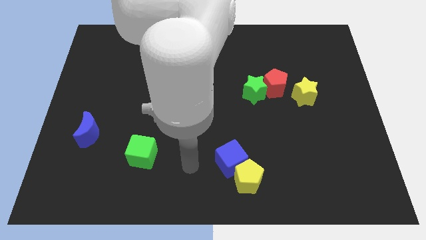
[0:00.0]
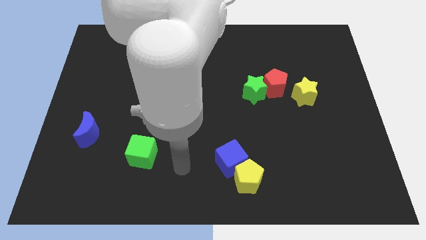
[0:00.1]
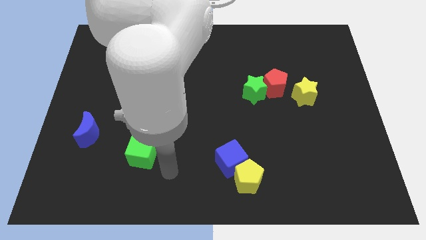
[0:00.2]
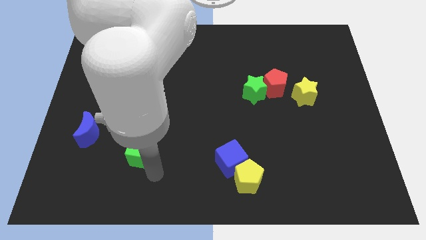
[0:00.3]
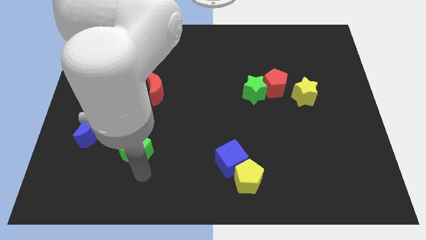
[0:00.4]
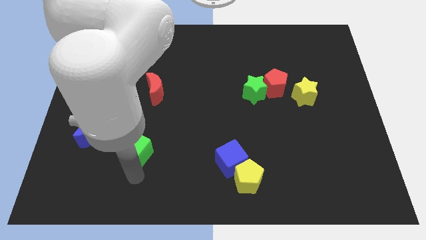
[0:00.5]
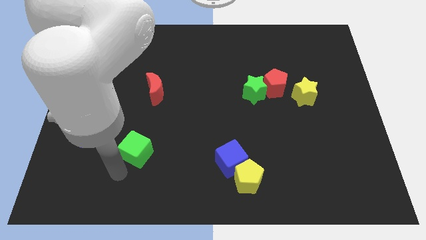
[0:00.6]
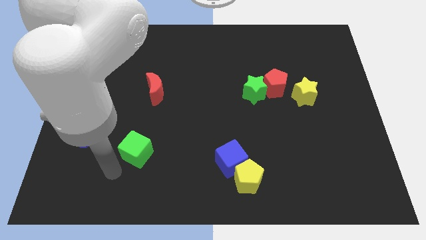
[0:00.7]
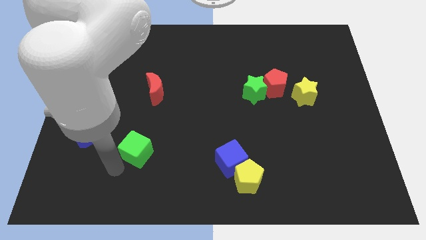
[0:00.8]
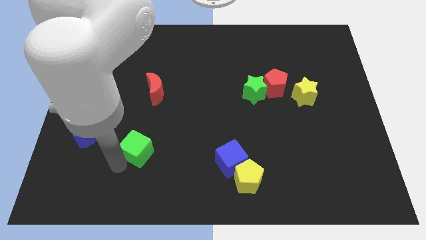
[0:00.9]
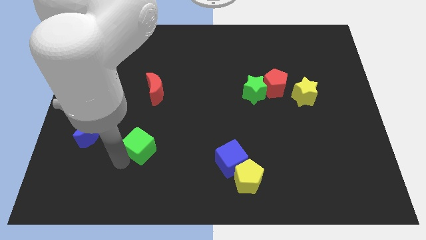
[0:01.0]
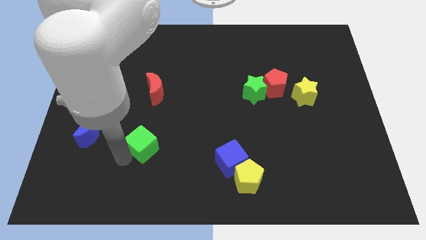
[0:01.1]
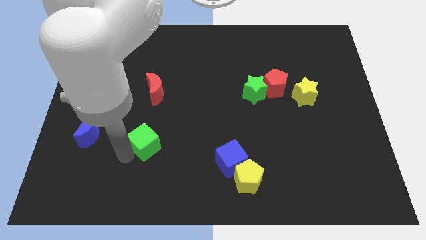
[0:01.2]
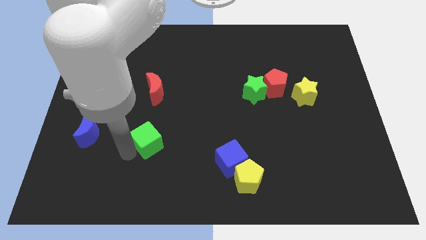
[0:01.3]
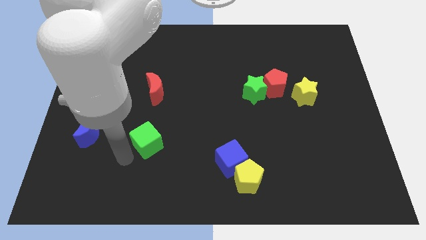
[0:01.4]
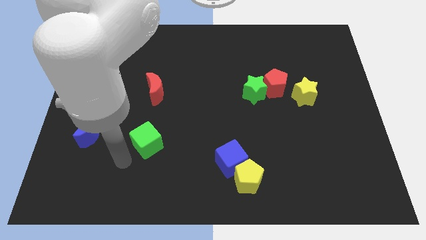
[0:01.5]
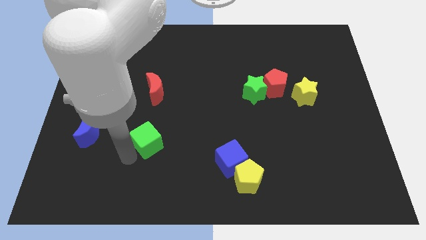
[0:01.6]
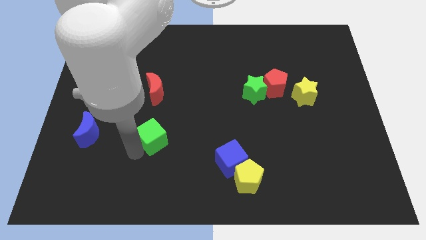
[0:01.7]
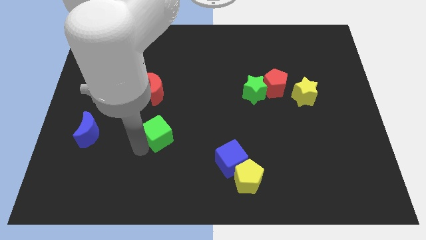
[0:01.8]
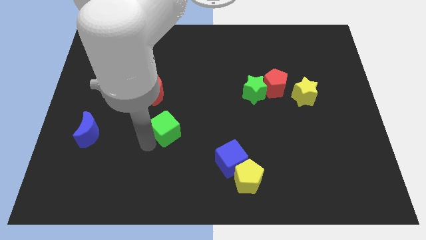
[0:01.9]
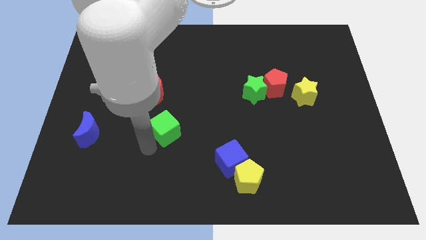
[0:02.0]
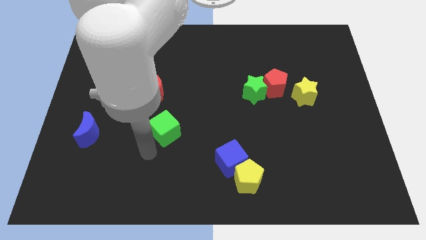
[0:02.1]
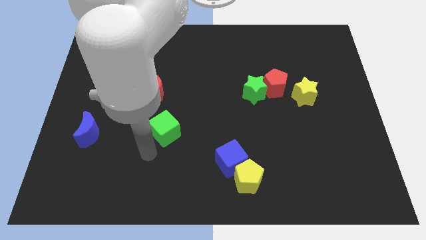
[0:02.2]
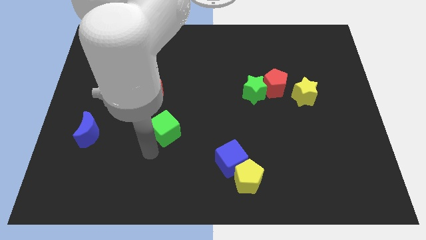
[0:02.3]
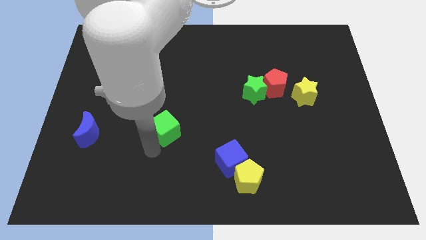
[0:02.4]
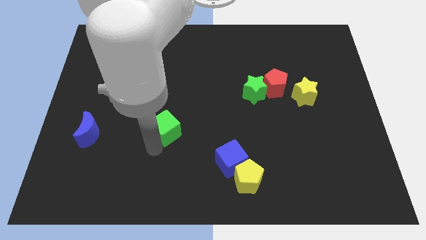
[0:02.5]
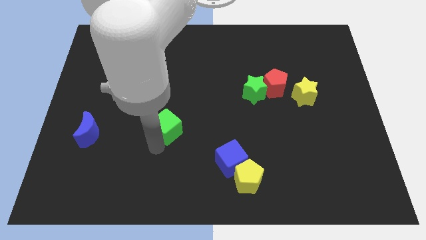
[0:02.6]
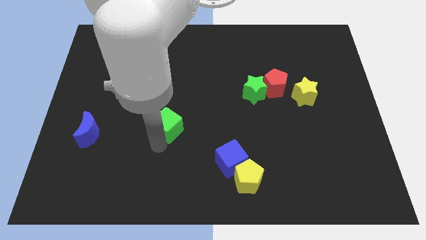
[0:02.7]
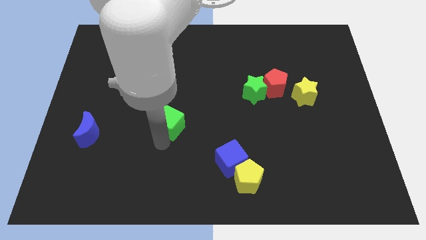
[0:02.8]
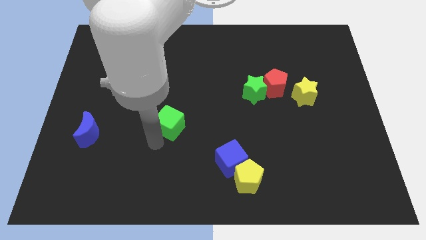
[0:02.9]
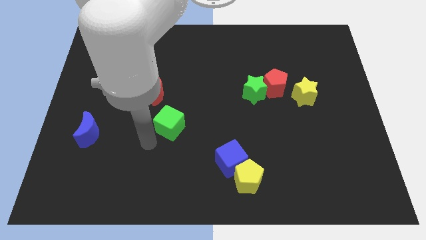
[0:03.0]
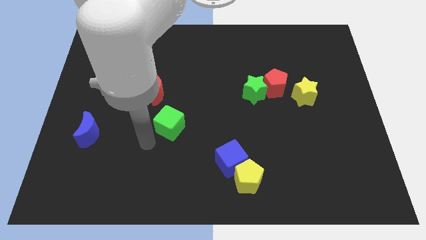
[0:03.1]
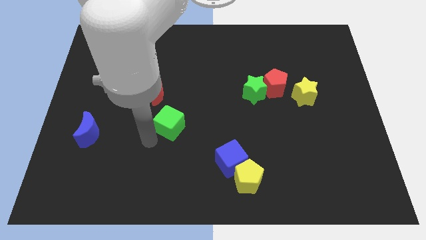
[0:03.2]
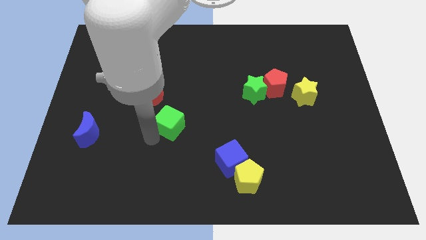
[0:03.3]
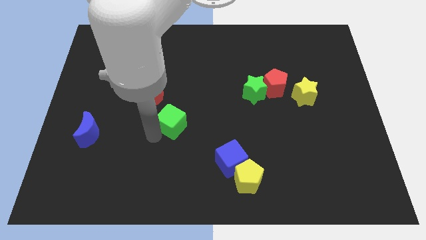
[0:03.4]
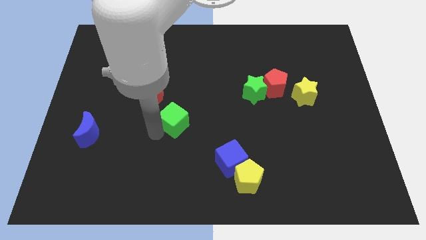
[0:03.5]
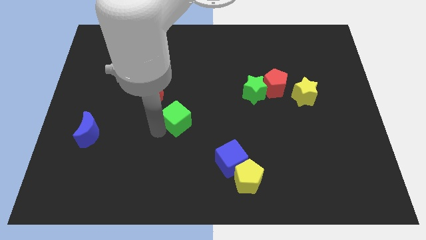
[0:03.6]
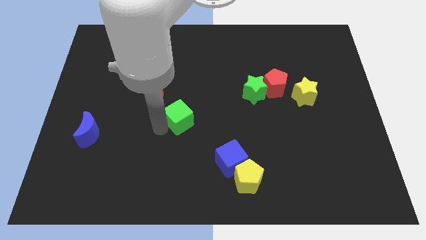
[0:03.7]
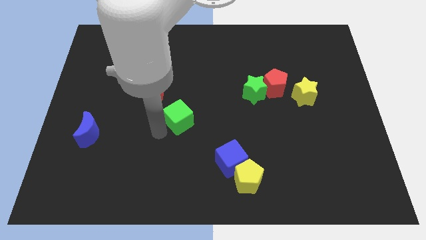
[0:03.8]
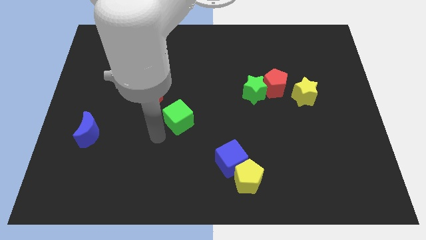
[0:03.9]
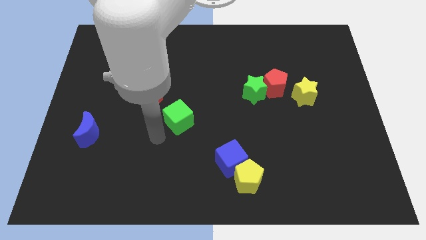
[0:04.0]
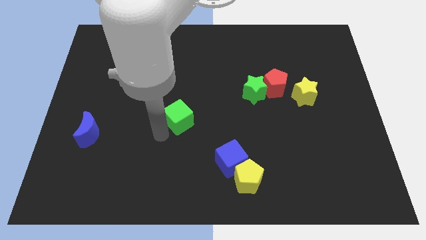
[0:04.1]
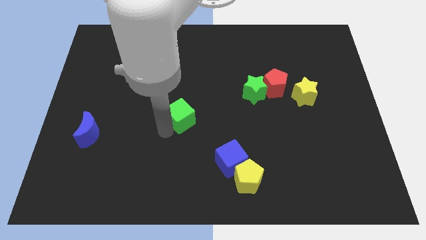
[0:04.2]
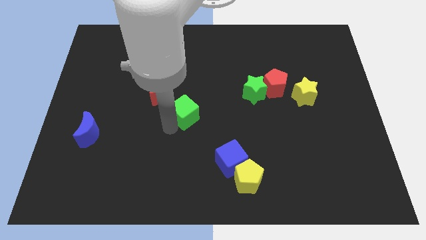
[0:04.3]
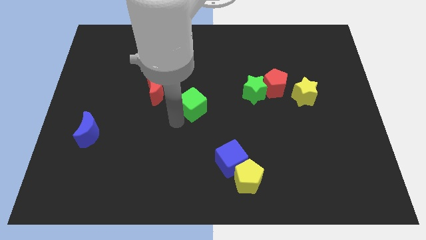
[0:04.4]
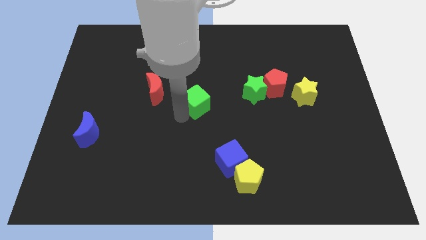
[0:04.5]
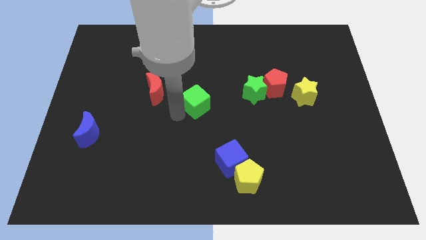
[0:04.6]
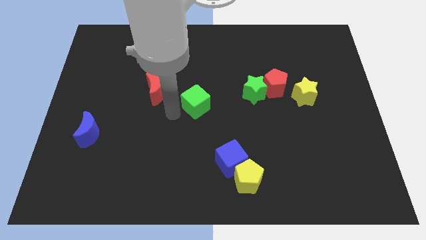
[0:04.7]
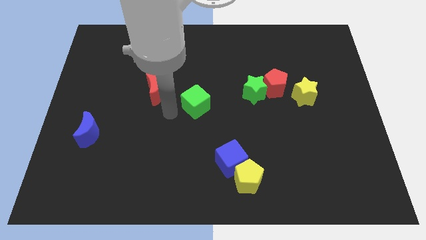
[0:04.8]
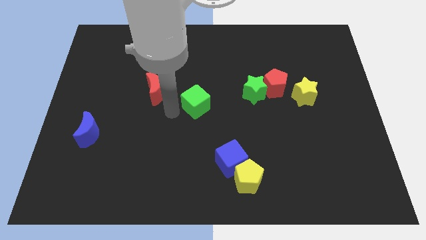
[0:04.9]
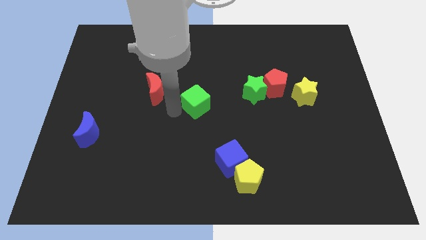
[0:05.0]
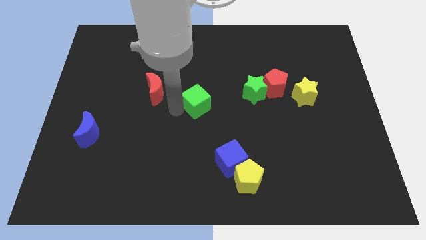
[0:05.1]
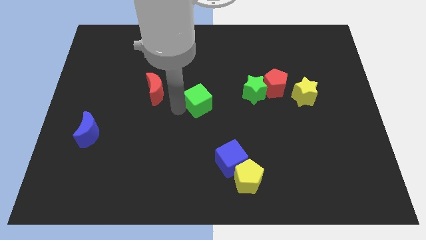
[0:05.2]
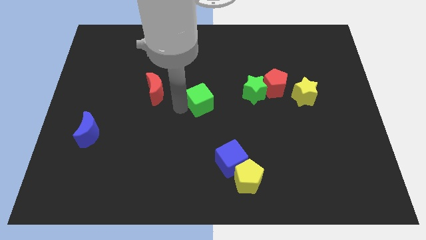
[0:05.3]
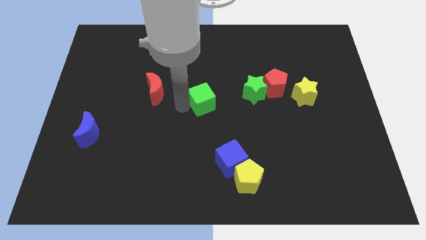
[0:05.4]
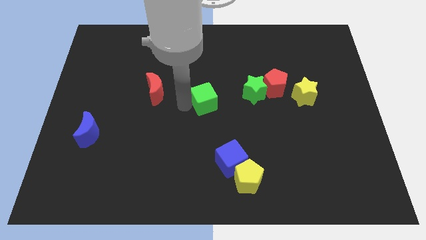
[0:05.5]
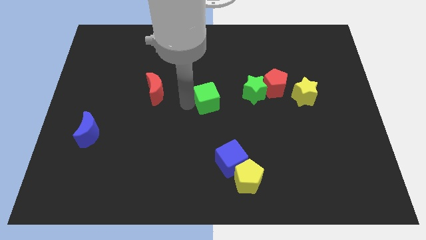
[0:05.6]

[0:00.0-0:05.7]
push the green cube upwards and then right

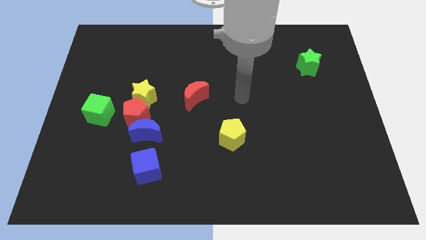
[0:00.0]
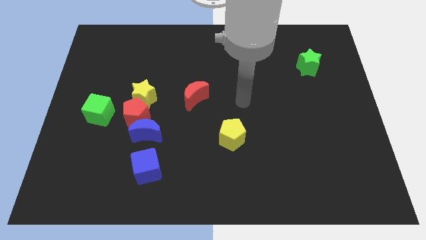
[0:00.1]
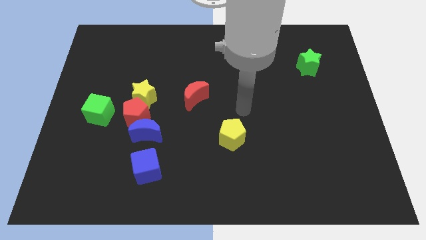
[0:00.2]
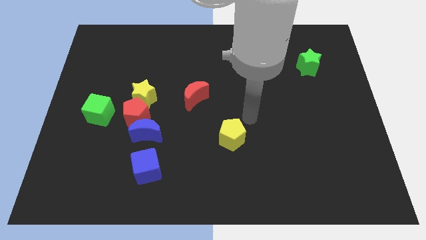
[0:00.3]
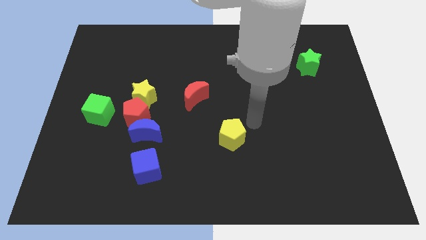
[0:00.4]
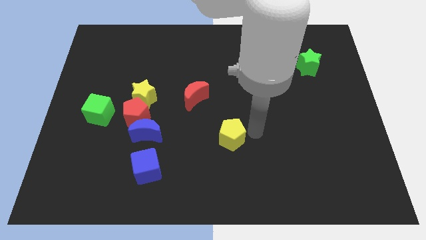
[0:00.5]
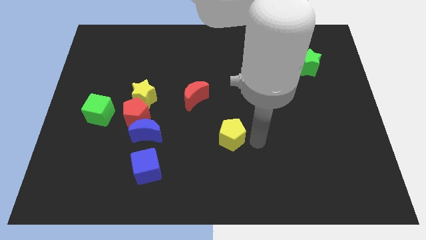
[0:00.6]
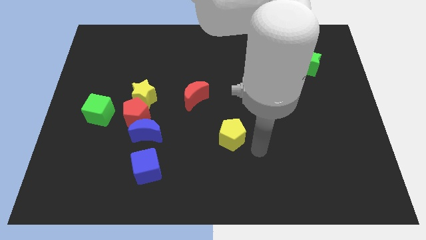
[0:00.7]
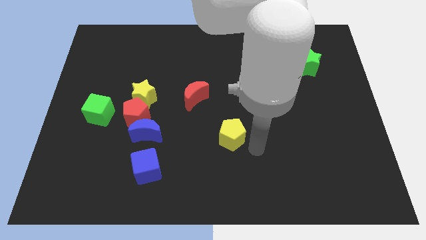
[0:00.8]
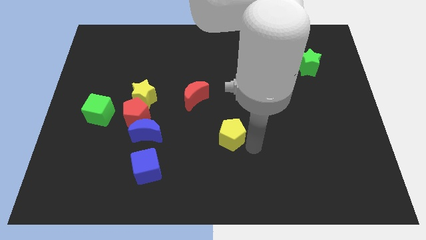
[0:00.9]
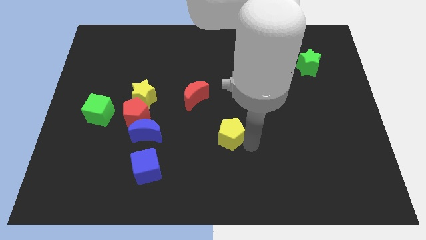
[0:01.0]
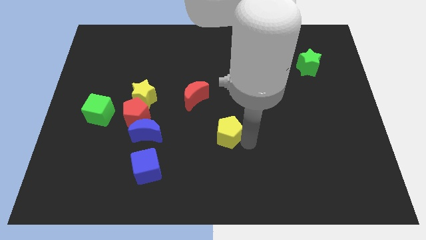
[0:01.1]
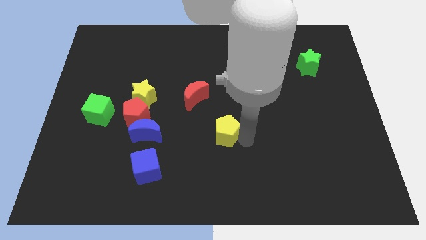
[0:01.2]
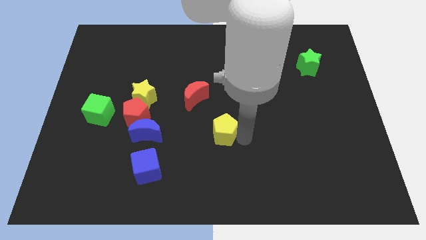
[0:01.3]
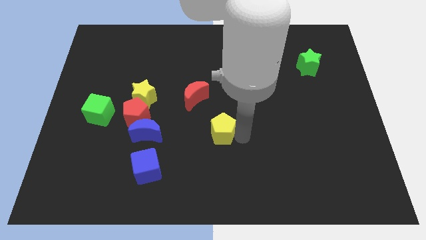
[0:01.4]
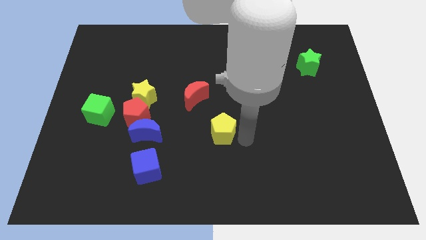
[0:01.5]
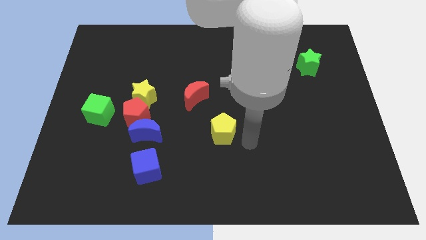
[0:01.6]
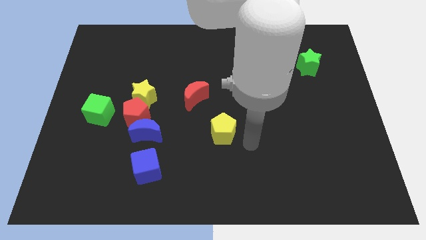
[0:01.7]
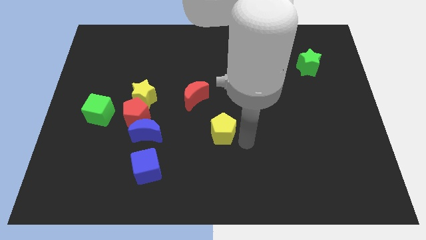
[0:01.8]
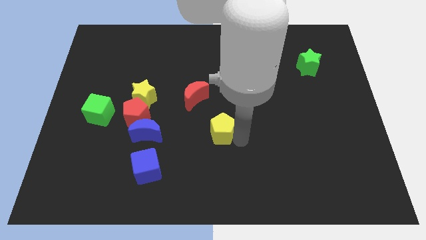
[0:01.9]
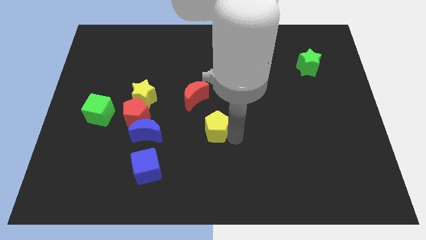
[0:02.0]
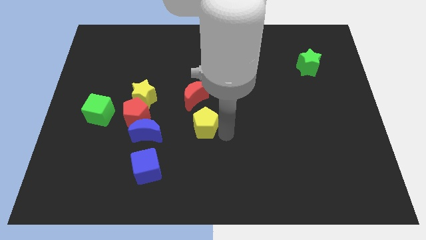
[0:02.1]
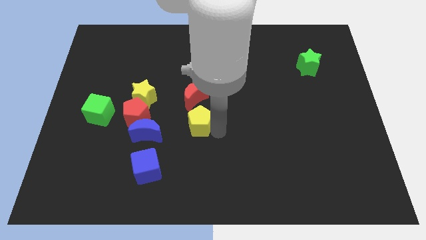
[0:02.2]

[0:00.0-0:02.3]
move the yellow pentagon a little upwards and then to the left

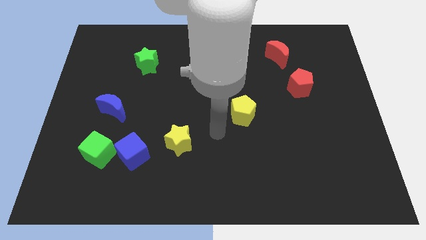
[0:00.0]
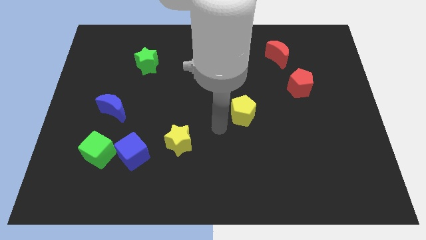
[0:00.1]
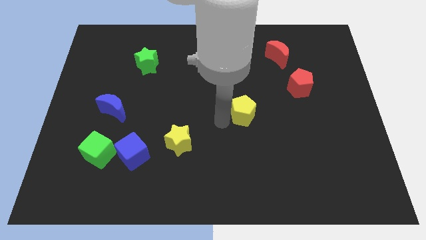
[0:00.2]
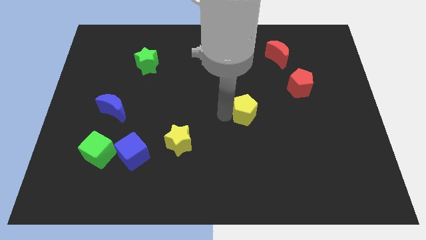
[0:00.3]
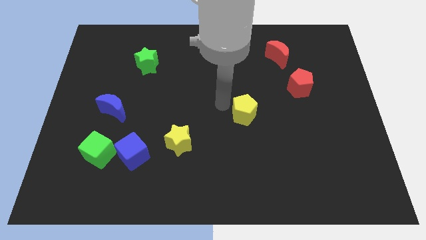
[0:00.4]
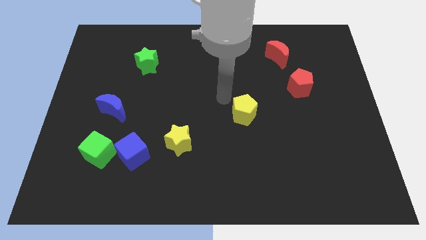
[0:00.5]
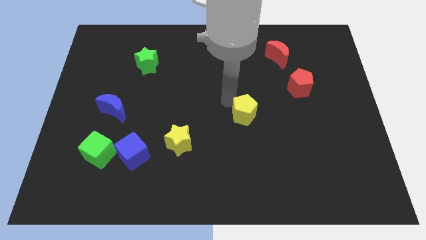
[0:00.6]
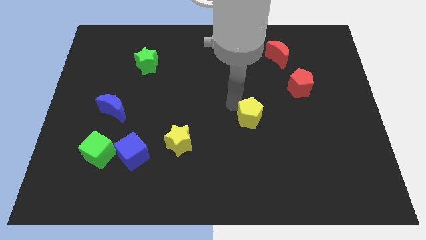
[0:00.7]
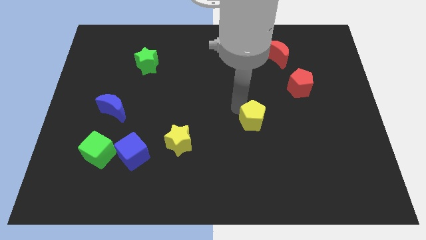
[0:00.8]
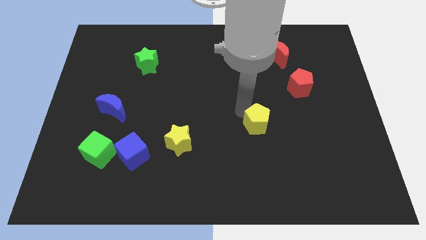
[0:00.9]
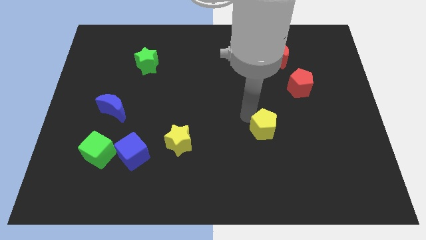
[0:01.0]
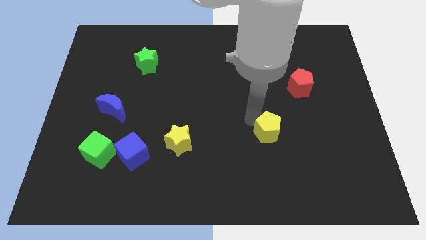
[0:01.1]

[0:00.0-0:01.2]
slide the yellow pentagon down and right diagonally a little bit
